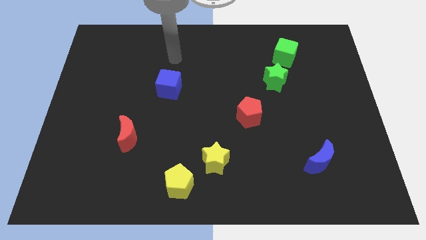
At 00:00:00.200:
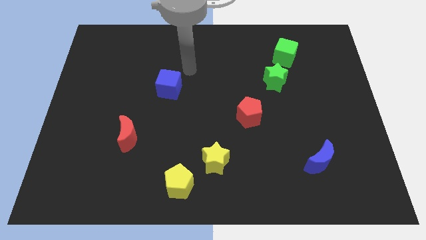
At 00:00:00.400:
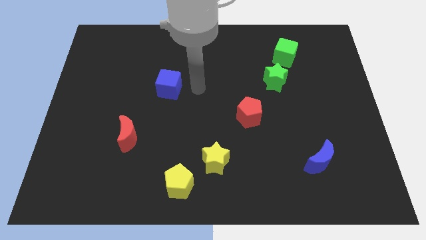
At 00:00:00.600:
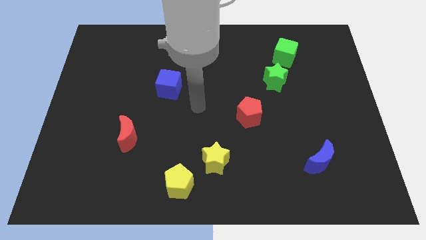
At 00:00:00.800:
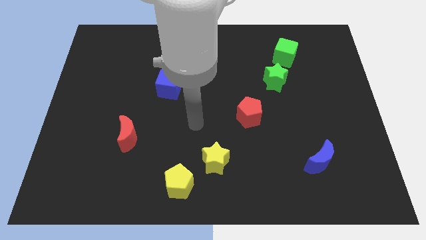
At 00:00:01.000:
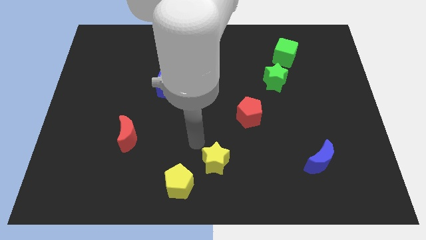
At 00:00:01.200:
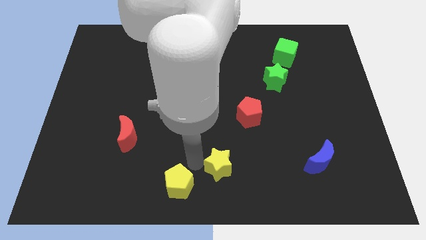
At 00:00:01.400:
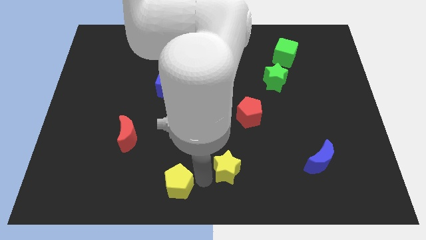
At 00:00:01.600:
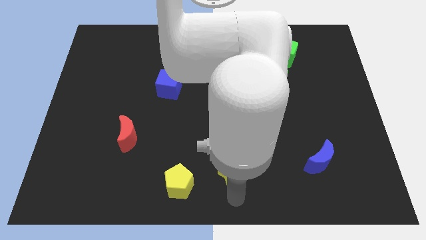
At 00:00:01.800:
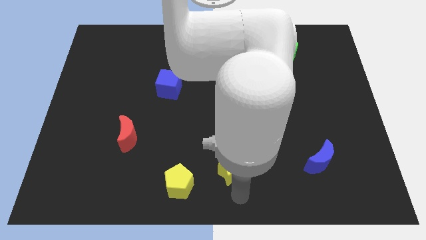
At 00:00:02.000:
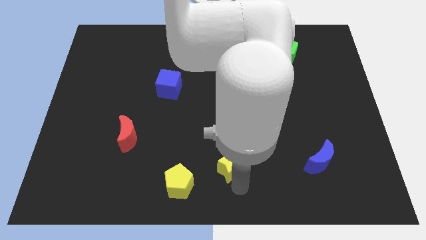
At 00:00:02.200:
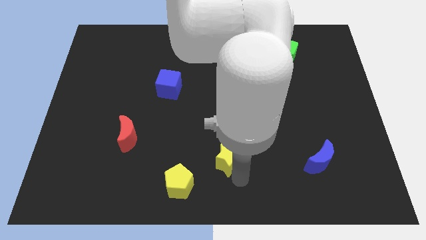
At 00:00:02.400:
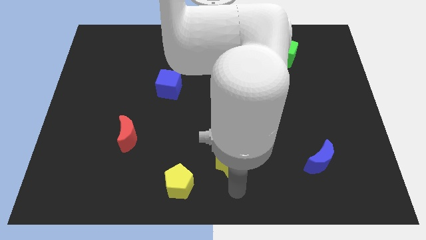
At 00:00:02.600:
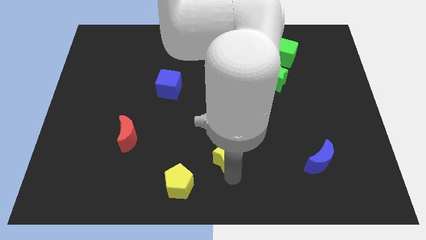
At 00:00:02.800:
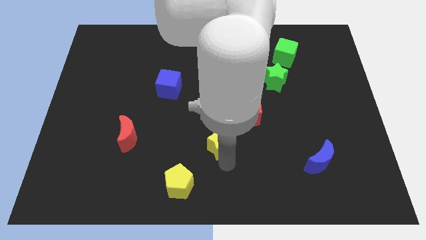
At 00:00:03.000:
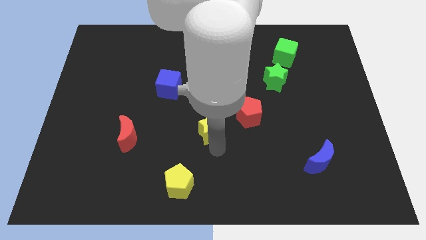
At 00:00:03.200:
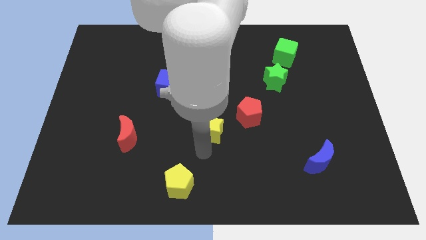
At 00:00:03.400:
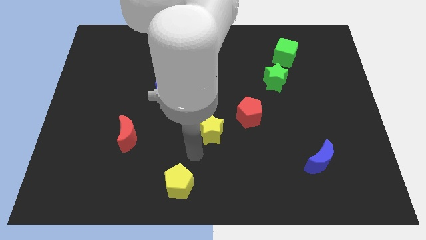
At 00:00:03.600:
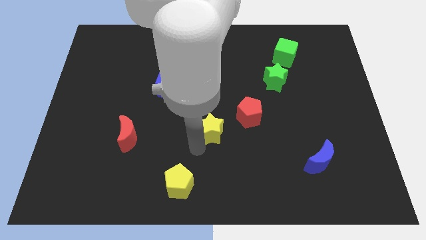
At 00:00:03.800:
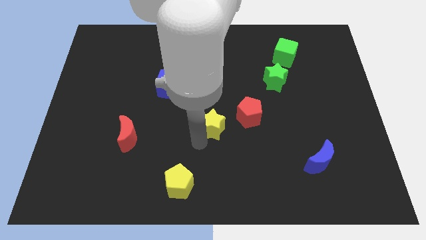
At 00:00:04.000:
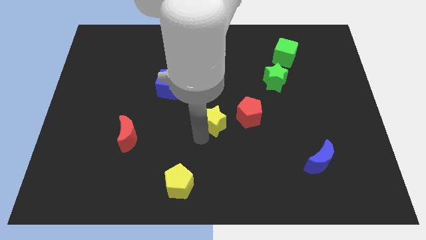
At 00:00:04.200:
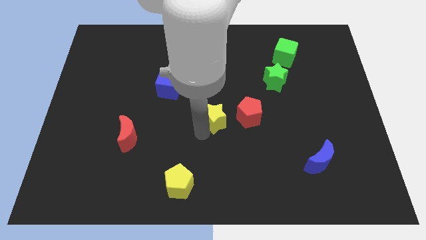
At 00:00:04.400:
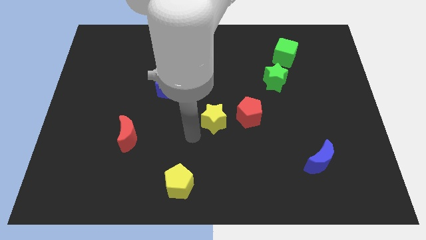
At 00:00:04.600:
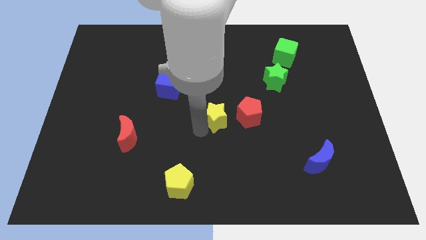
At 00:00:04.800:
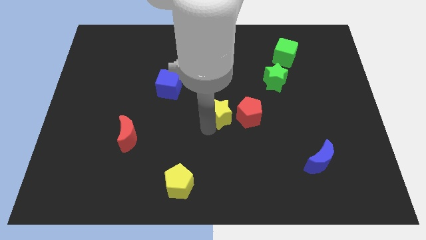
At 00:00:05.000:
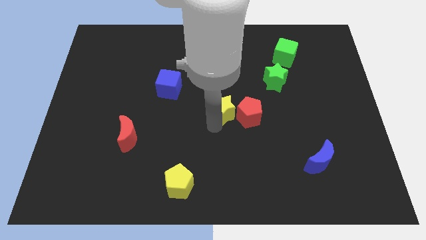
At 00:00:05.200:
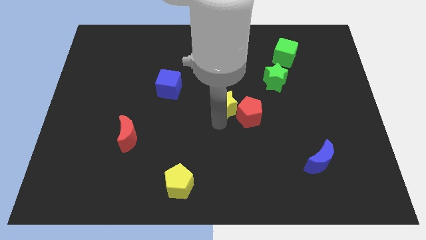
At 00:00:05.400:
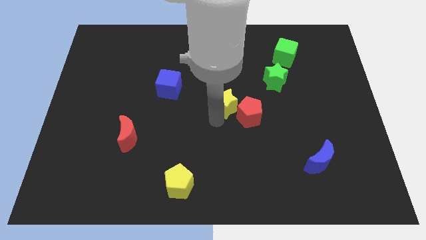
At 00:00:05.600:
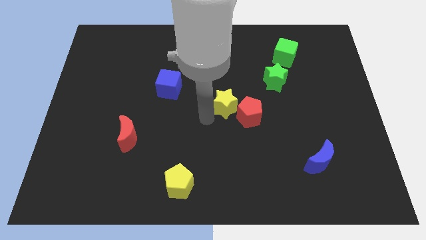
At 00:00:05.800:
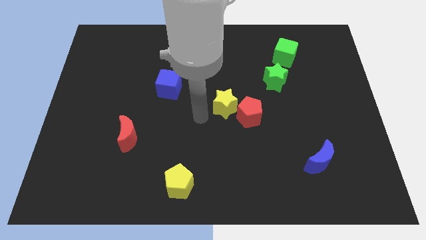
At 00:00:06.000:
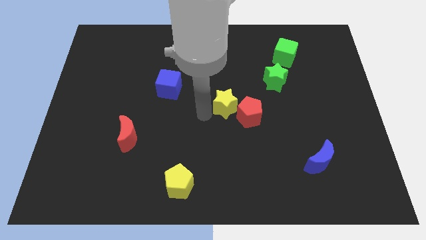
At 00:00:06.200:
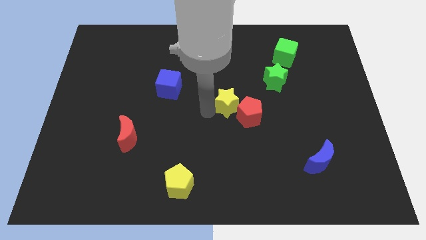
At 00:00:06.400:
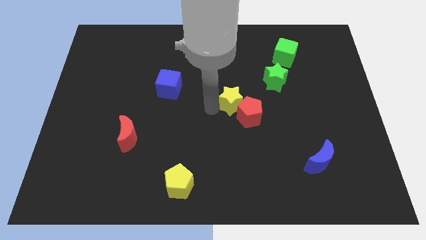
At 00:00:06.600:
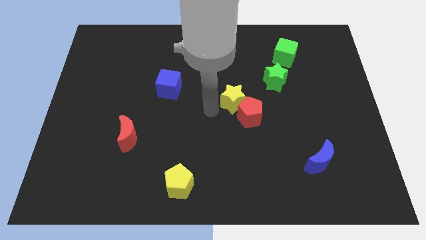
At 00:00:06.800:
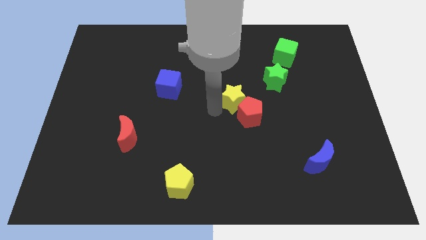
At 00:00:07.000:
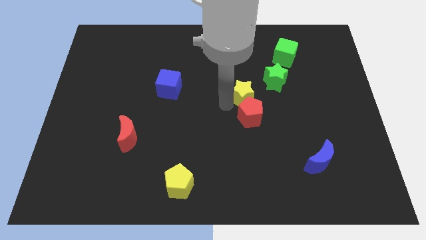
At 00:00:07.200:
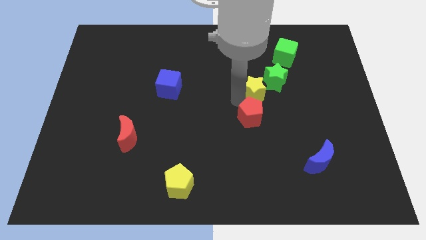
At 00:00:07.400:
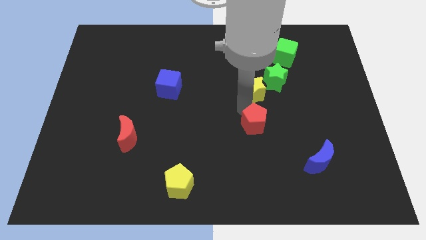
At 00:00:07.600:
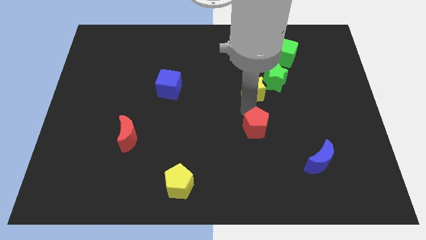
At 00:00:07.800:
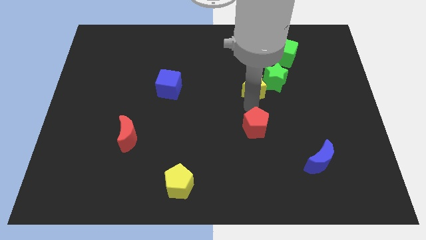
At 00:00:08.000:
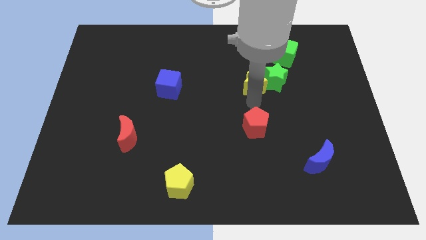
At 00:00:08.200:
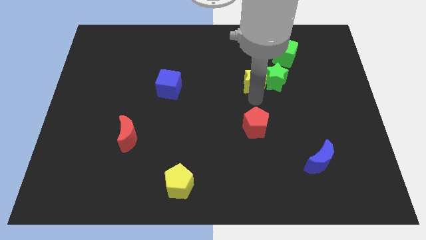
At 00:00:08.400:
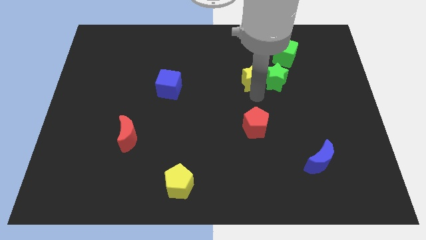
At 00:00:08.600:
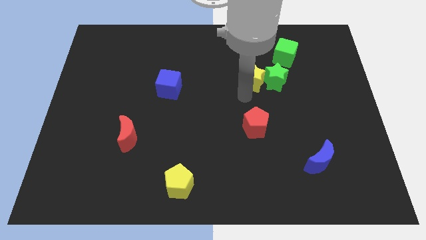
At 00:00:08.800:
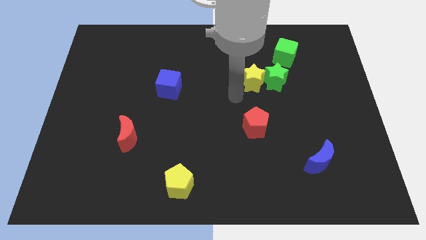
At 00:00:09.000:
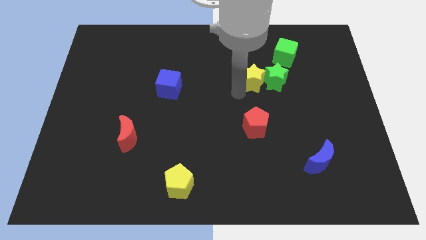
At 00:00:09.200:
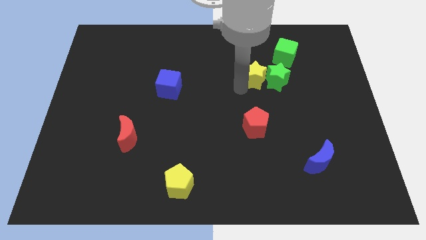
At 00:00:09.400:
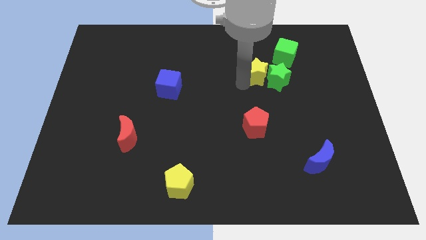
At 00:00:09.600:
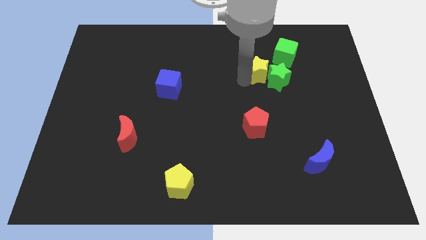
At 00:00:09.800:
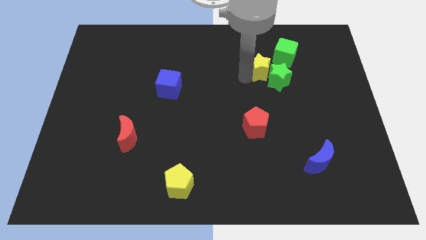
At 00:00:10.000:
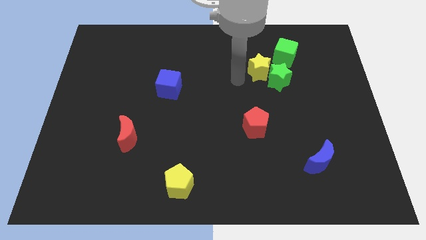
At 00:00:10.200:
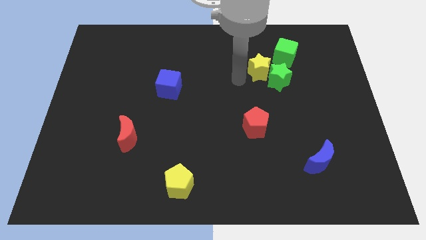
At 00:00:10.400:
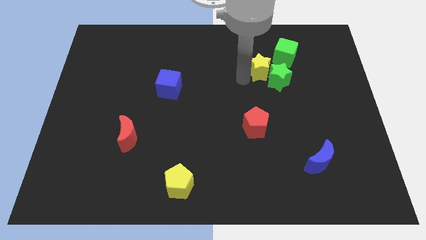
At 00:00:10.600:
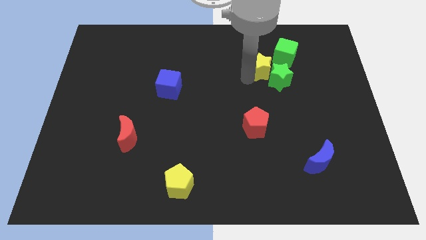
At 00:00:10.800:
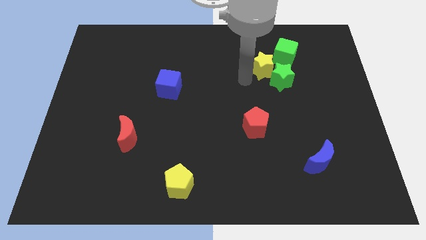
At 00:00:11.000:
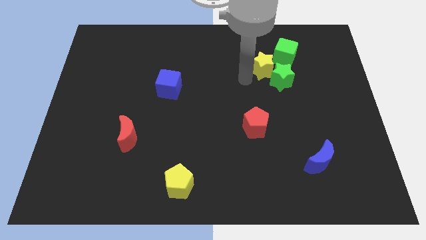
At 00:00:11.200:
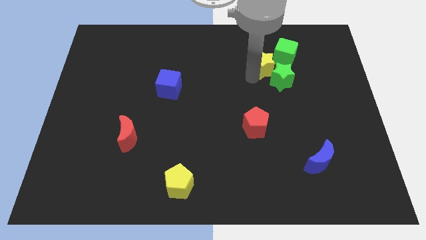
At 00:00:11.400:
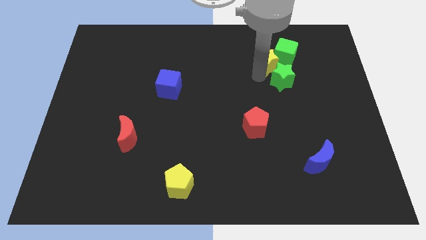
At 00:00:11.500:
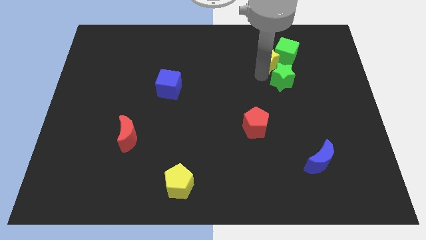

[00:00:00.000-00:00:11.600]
put the yellow star to the green cube

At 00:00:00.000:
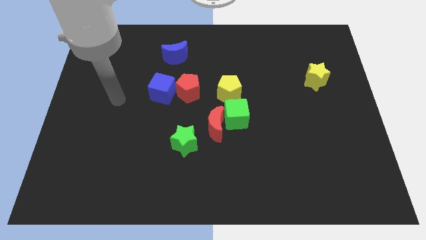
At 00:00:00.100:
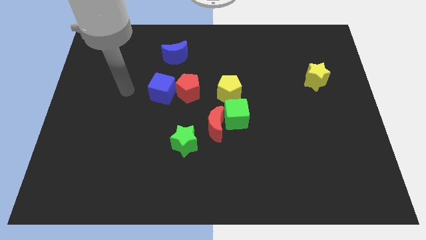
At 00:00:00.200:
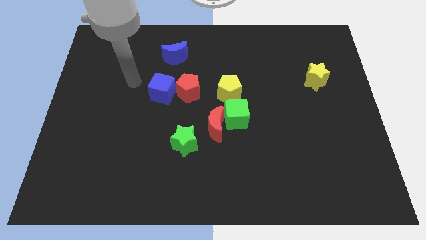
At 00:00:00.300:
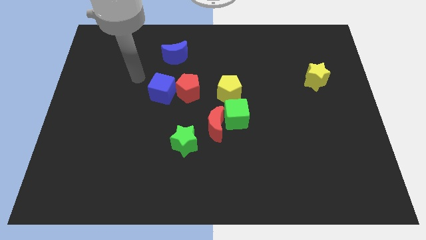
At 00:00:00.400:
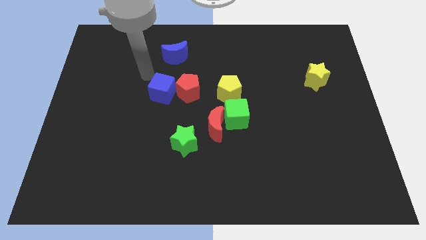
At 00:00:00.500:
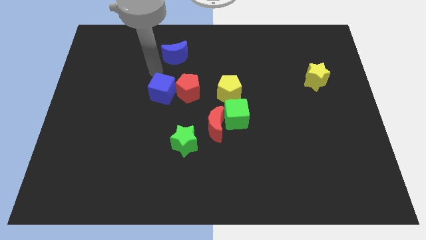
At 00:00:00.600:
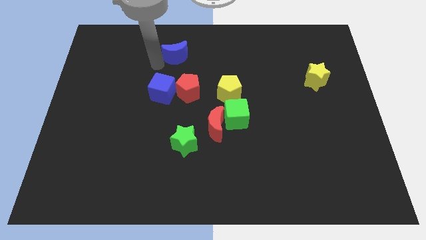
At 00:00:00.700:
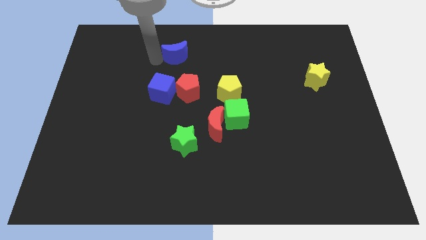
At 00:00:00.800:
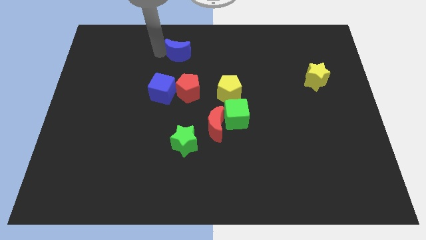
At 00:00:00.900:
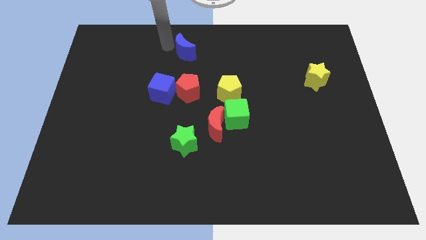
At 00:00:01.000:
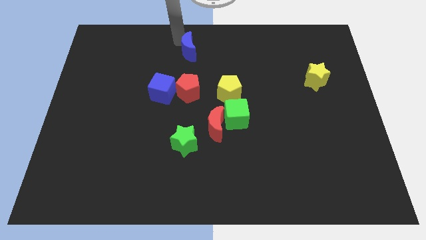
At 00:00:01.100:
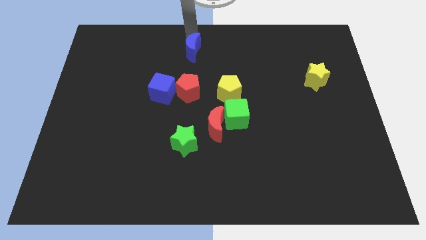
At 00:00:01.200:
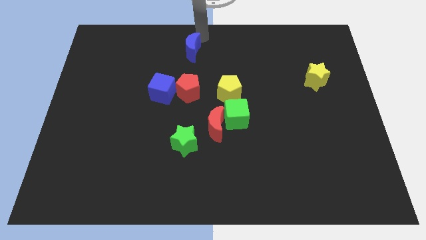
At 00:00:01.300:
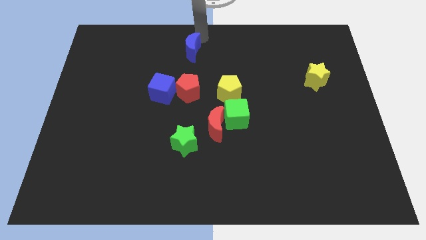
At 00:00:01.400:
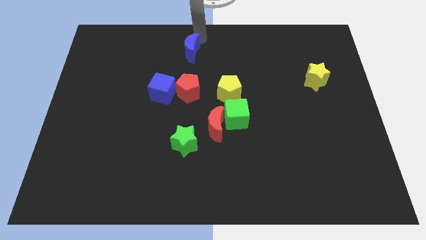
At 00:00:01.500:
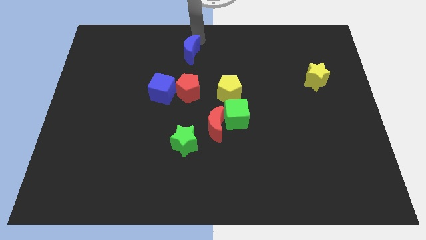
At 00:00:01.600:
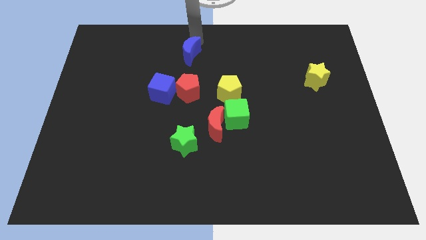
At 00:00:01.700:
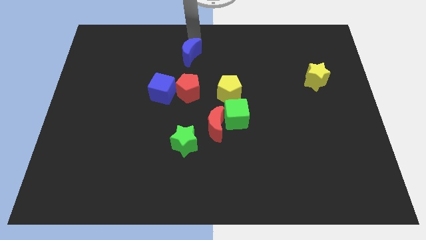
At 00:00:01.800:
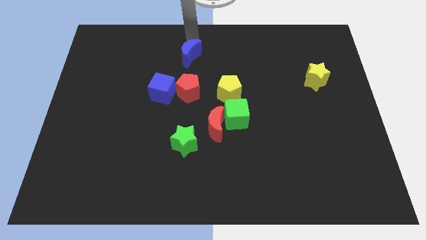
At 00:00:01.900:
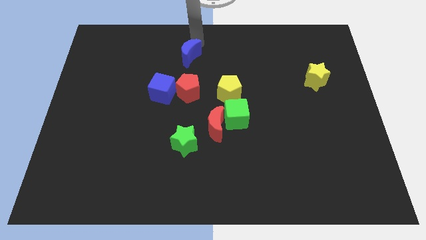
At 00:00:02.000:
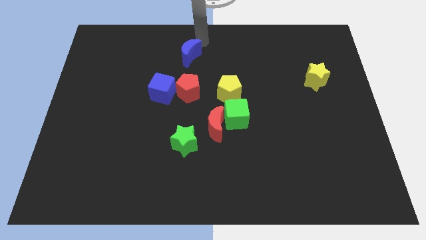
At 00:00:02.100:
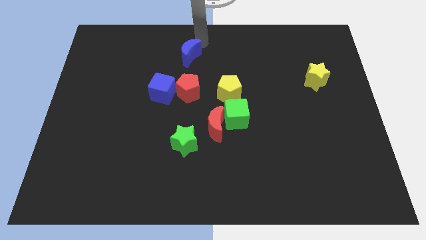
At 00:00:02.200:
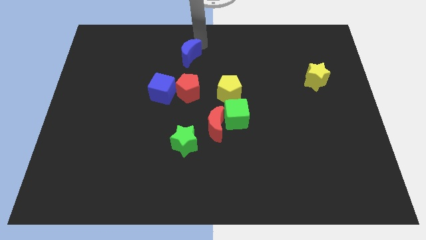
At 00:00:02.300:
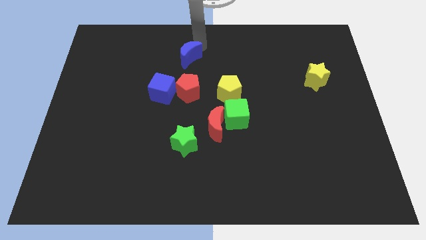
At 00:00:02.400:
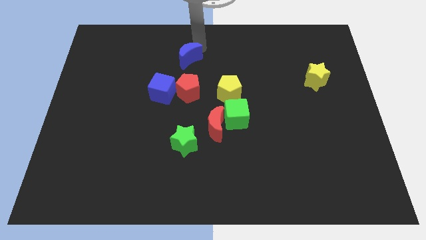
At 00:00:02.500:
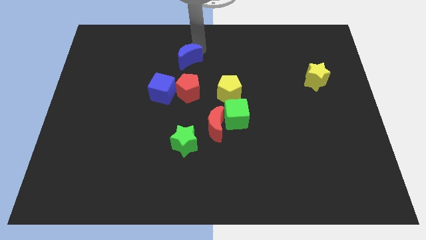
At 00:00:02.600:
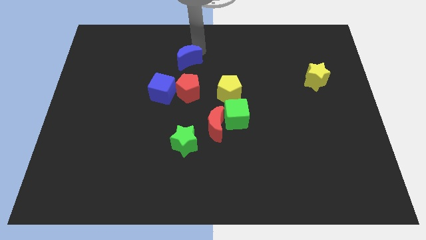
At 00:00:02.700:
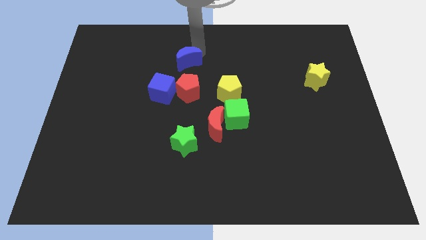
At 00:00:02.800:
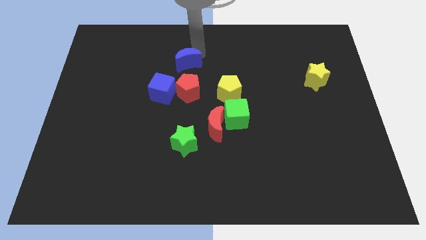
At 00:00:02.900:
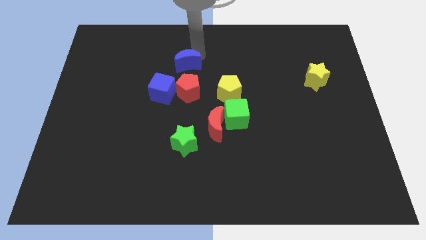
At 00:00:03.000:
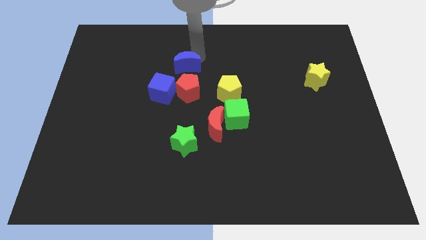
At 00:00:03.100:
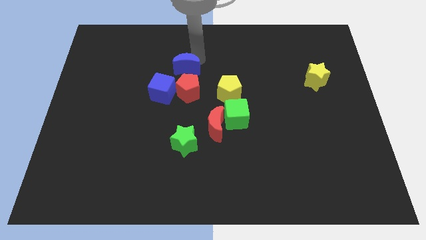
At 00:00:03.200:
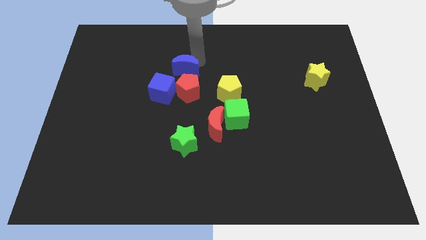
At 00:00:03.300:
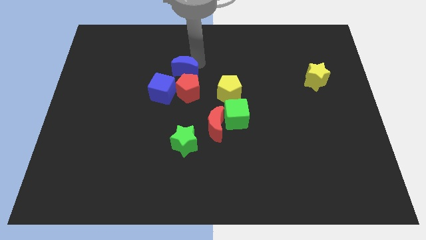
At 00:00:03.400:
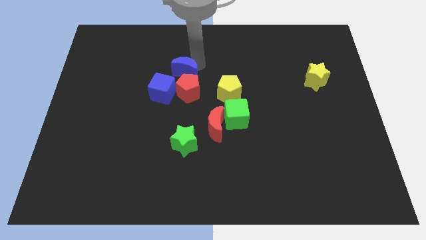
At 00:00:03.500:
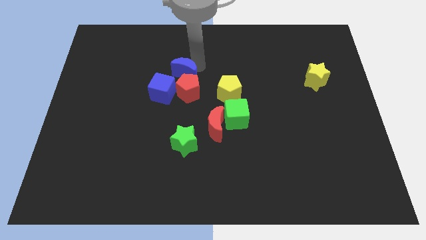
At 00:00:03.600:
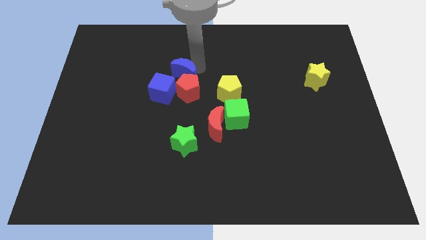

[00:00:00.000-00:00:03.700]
slide the blue moon next to the red pentagon
